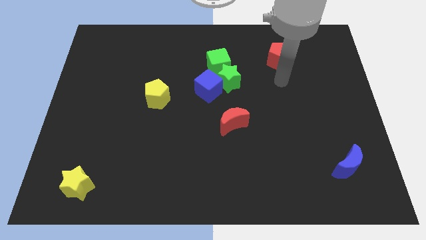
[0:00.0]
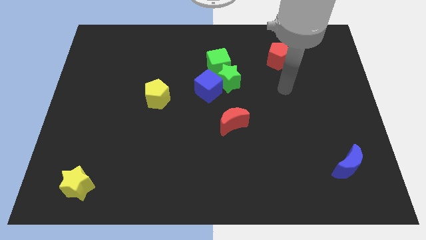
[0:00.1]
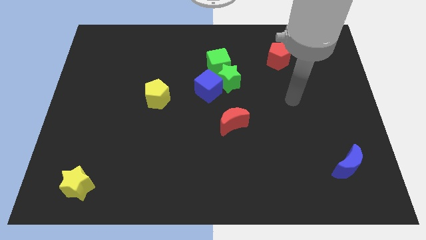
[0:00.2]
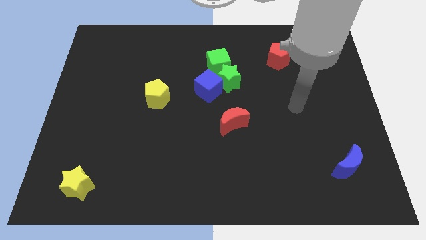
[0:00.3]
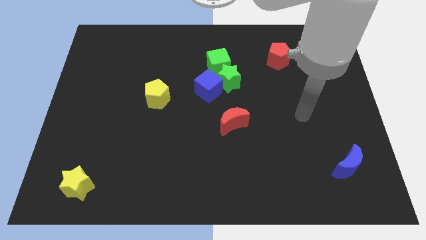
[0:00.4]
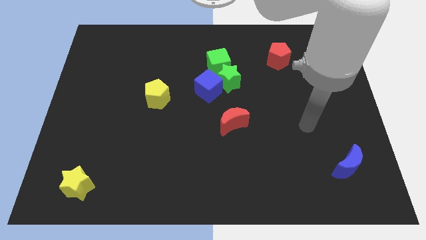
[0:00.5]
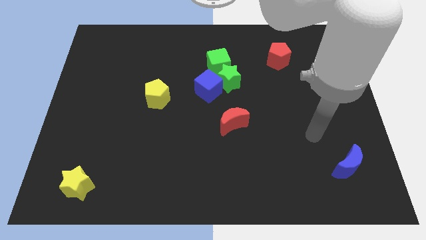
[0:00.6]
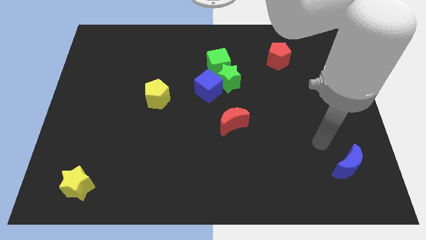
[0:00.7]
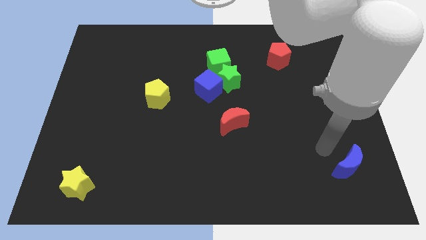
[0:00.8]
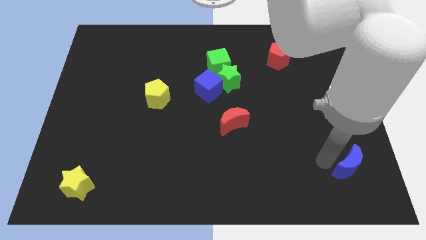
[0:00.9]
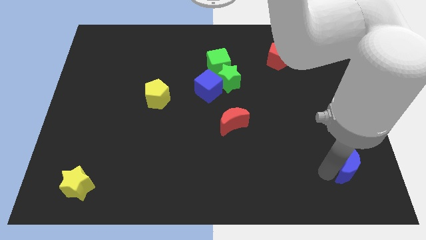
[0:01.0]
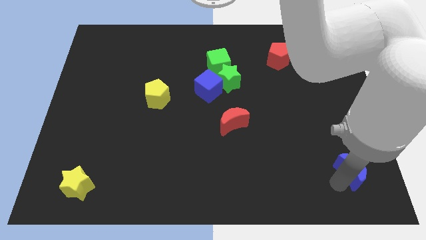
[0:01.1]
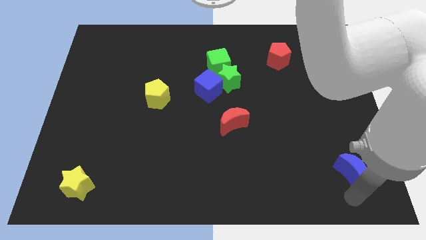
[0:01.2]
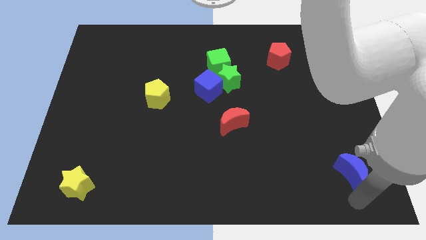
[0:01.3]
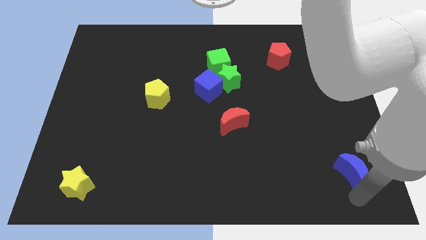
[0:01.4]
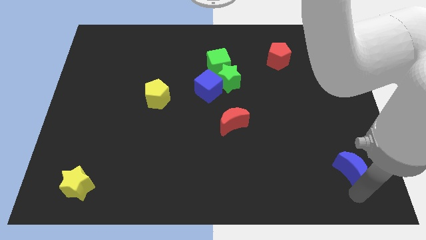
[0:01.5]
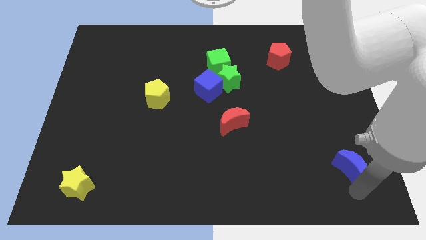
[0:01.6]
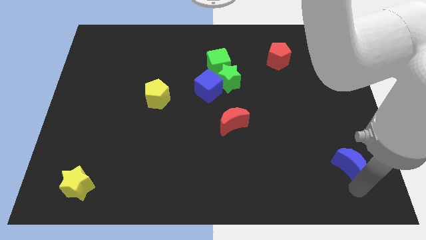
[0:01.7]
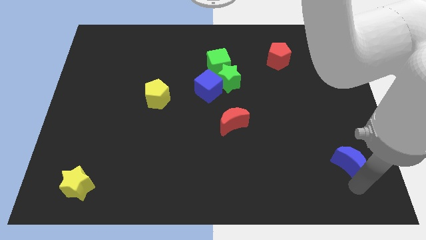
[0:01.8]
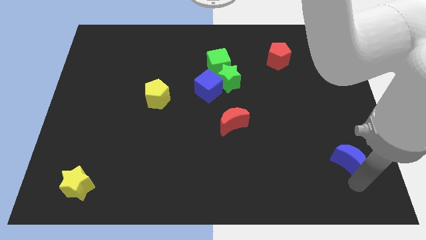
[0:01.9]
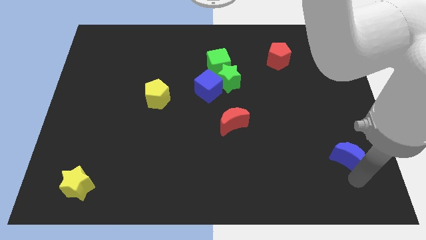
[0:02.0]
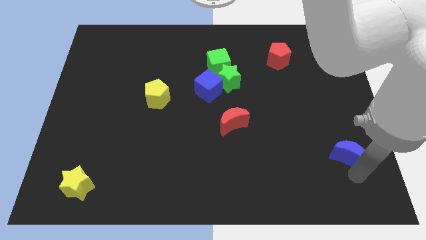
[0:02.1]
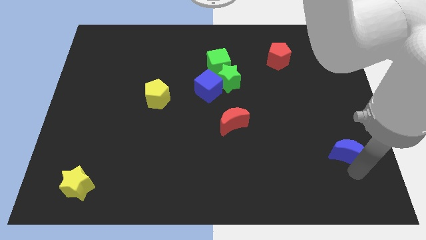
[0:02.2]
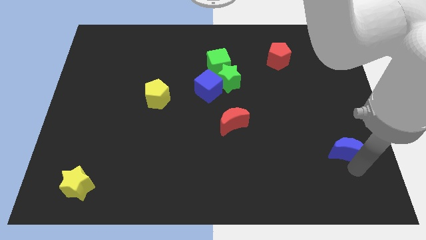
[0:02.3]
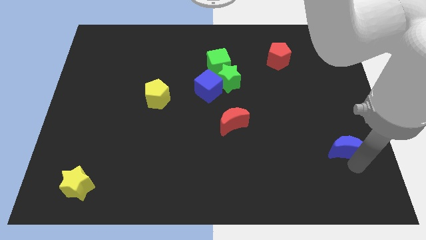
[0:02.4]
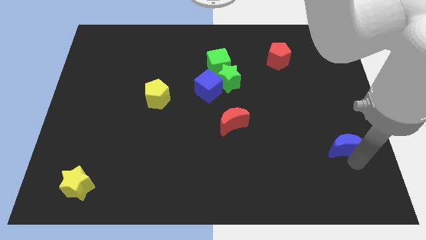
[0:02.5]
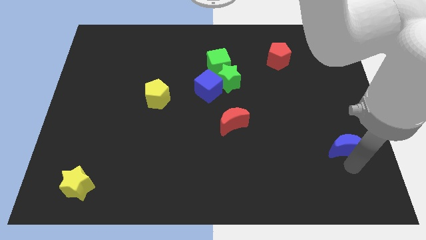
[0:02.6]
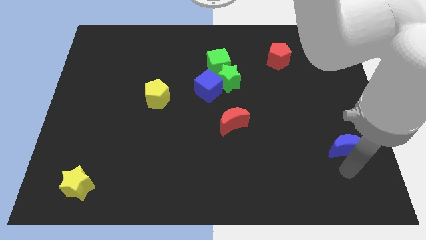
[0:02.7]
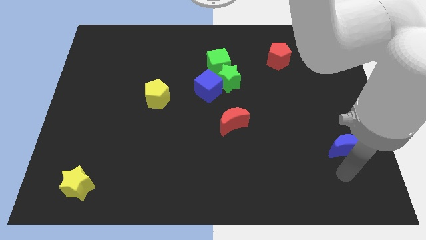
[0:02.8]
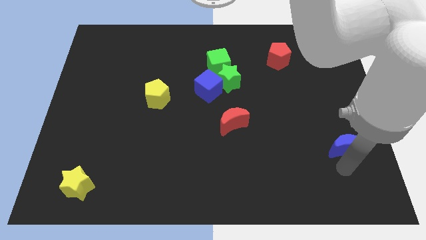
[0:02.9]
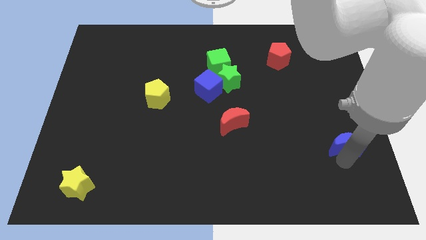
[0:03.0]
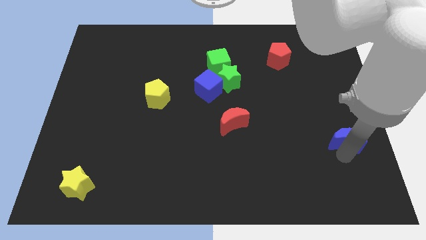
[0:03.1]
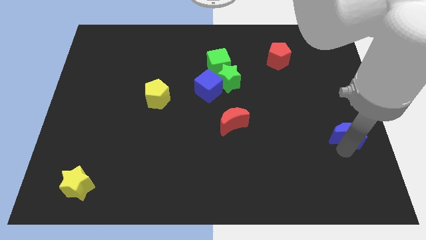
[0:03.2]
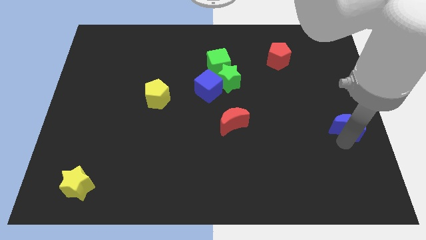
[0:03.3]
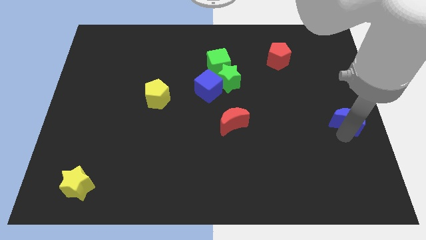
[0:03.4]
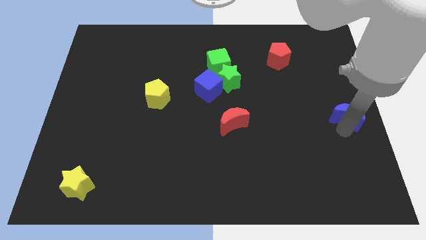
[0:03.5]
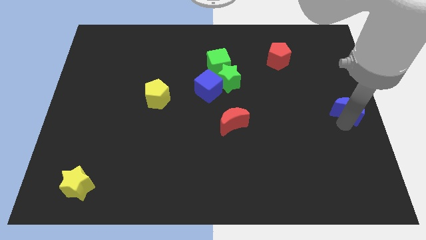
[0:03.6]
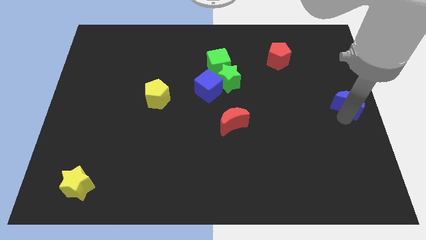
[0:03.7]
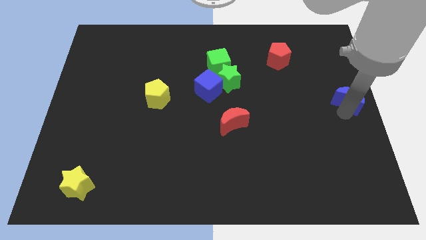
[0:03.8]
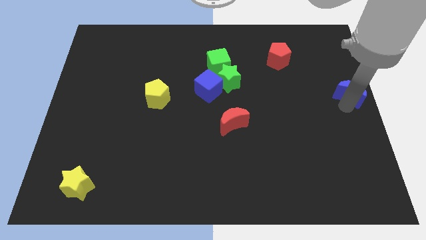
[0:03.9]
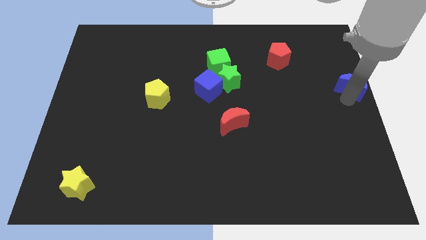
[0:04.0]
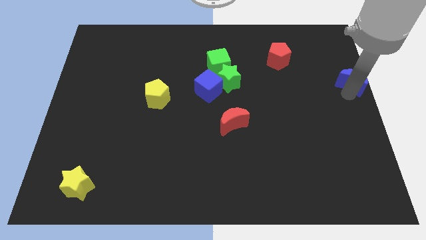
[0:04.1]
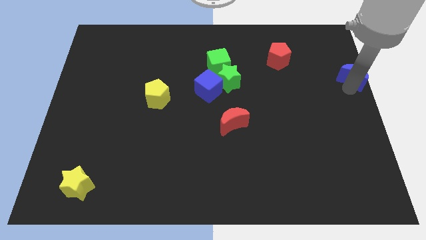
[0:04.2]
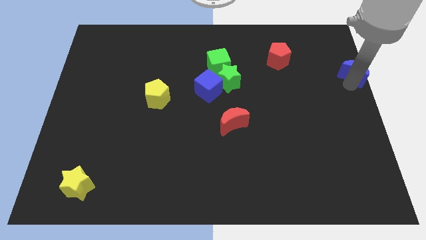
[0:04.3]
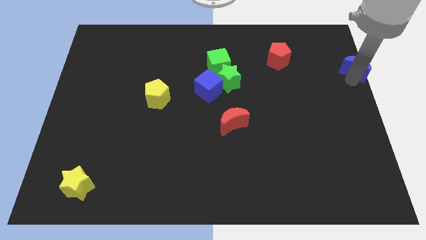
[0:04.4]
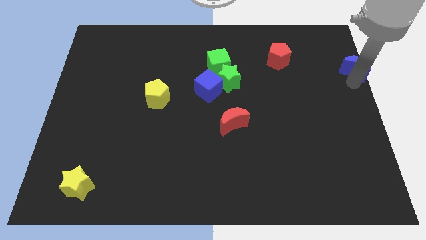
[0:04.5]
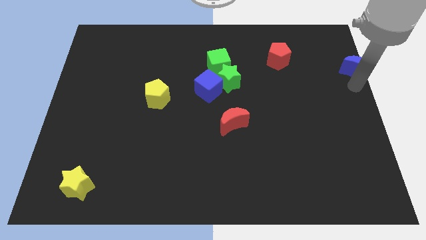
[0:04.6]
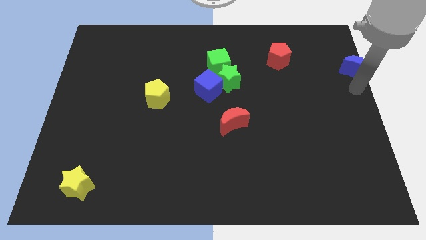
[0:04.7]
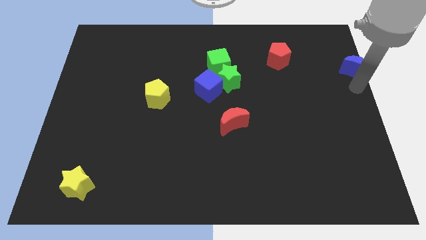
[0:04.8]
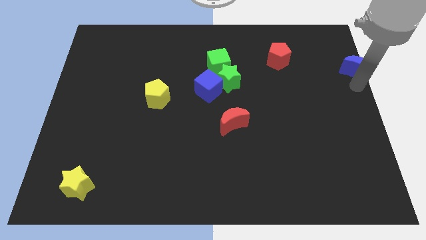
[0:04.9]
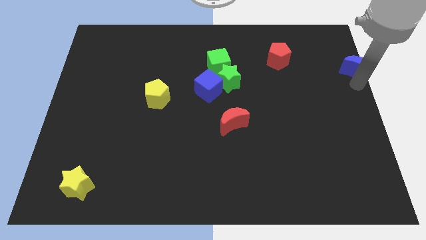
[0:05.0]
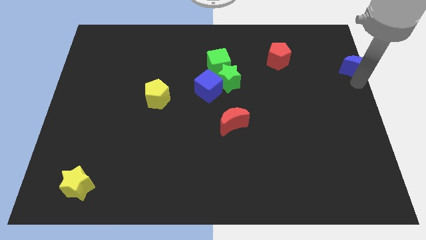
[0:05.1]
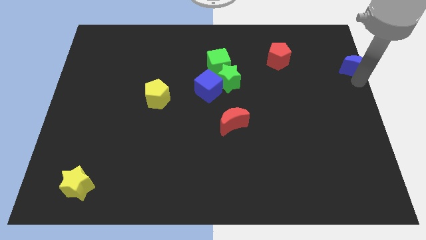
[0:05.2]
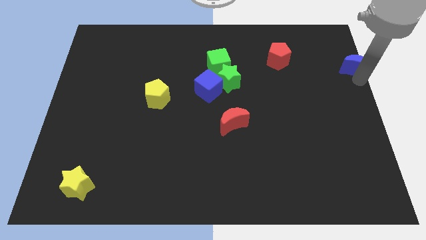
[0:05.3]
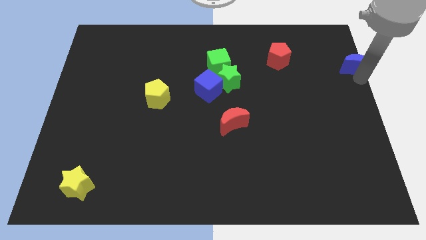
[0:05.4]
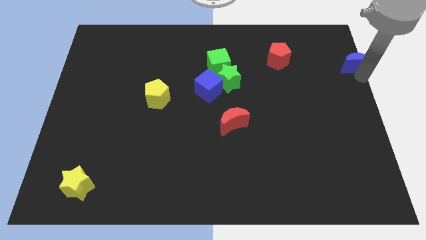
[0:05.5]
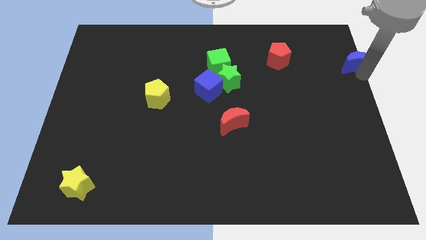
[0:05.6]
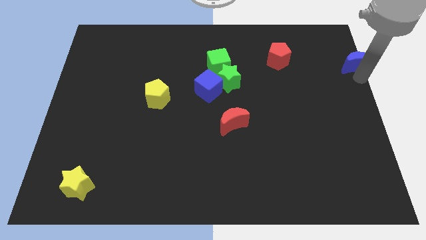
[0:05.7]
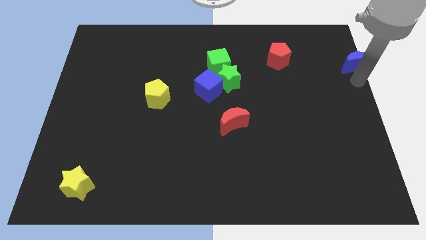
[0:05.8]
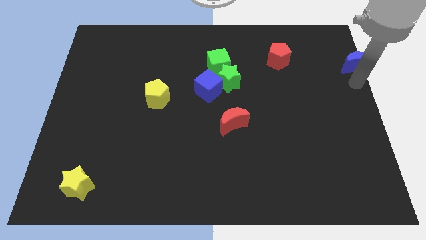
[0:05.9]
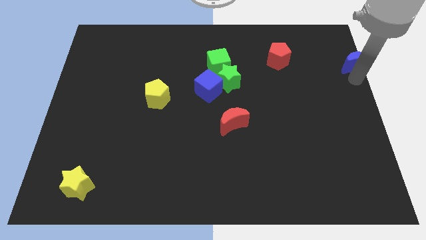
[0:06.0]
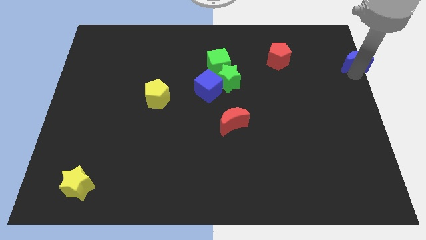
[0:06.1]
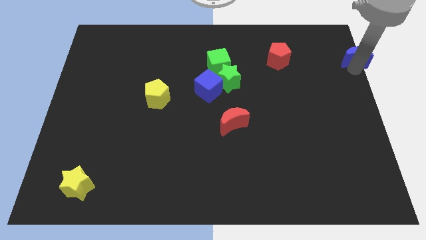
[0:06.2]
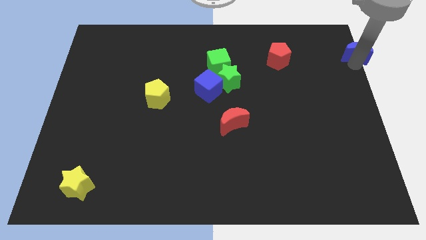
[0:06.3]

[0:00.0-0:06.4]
slide the blue moon to the upper right corner
